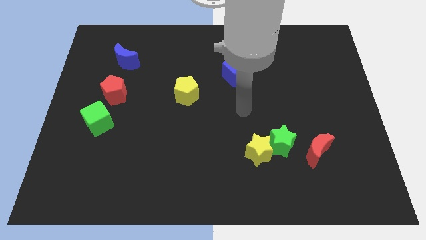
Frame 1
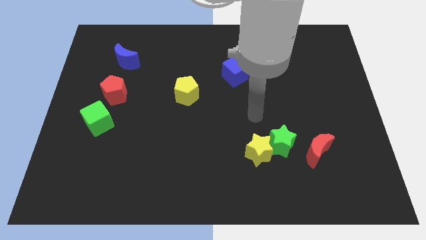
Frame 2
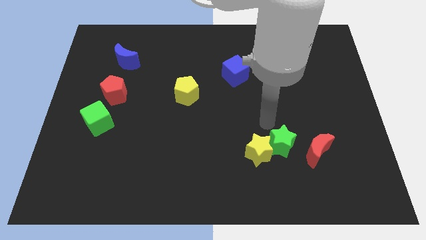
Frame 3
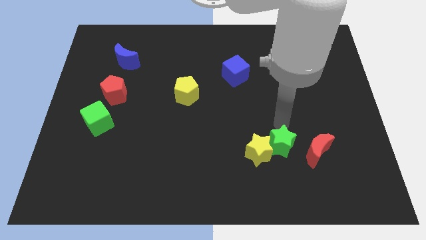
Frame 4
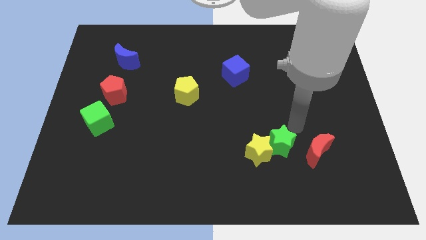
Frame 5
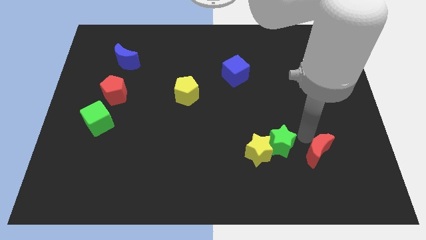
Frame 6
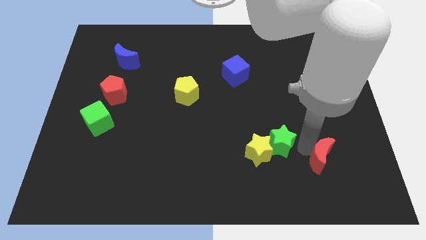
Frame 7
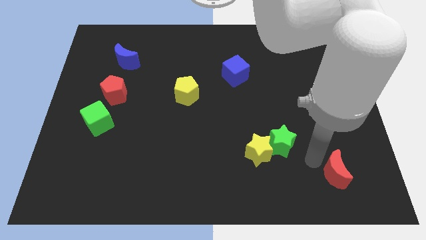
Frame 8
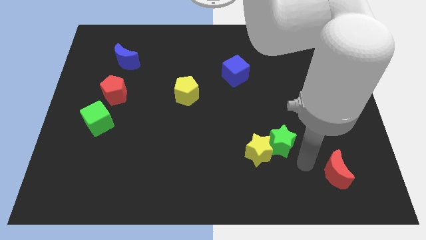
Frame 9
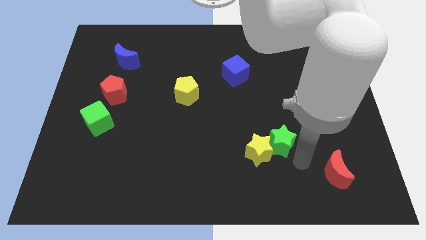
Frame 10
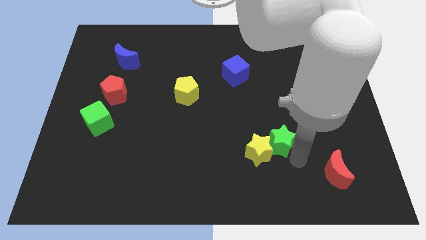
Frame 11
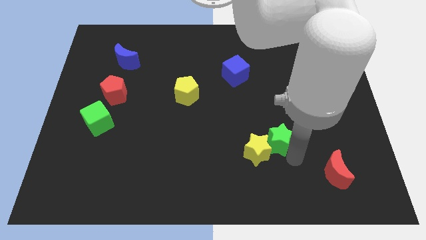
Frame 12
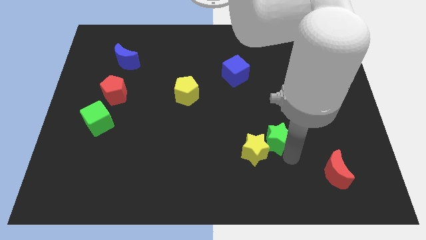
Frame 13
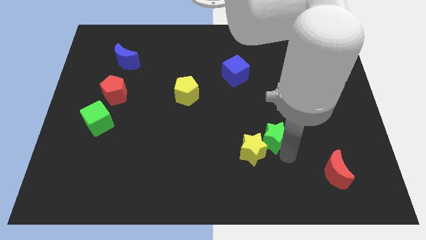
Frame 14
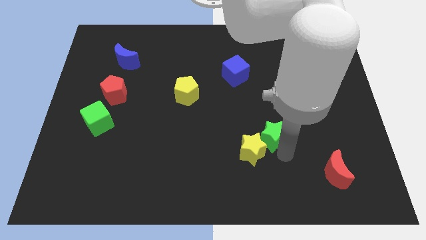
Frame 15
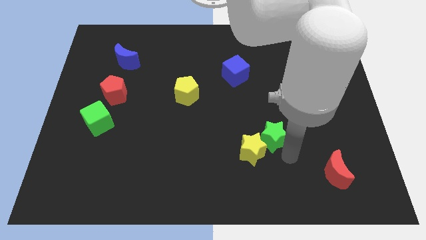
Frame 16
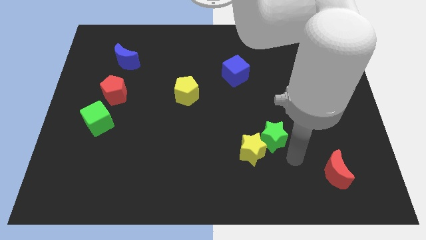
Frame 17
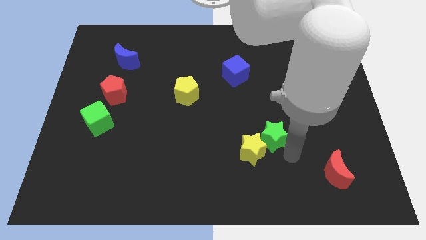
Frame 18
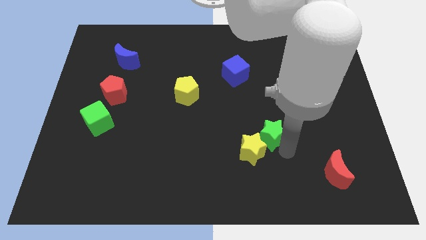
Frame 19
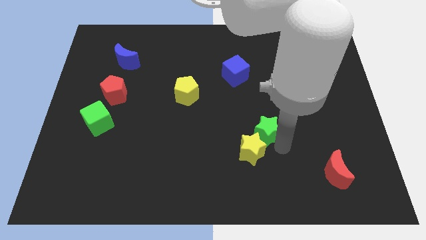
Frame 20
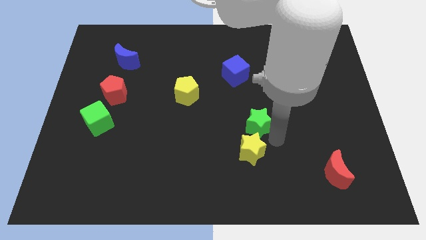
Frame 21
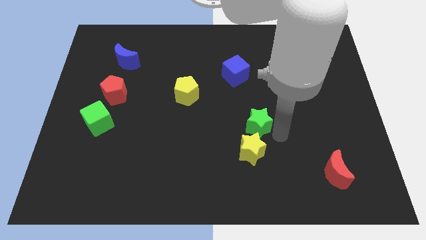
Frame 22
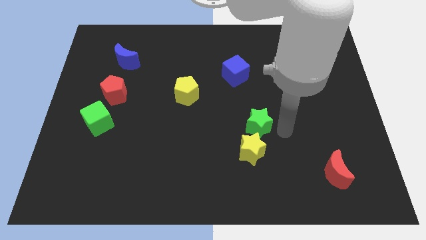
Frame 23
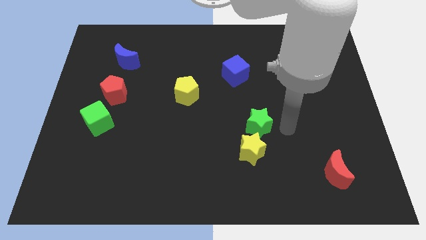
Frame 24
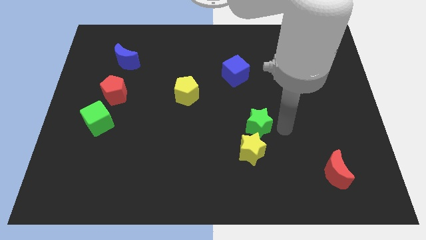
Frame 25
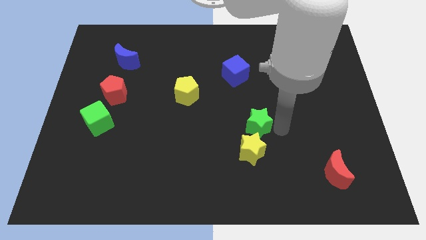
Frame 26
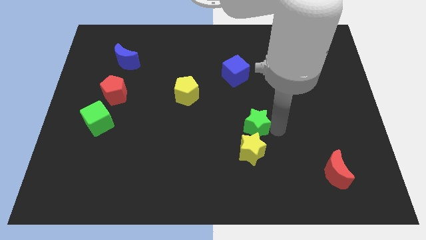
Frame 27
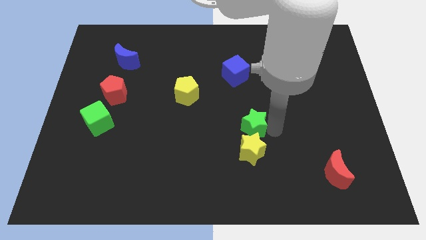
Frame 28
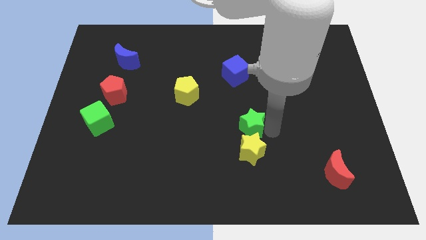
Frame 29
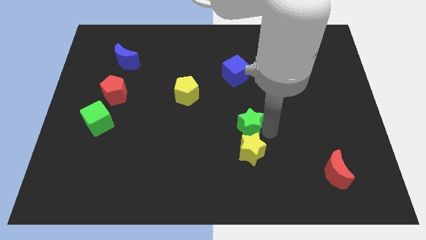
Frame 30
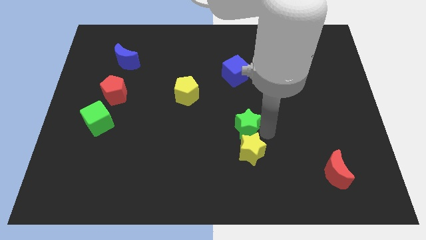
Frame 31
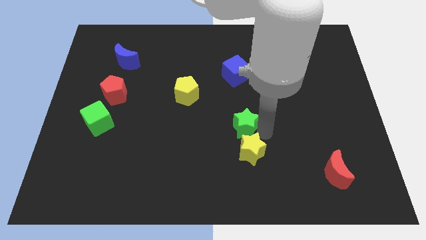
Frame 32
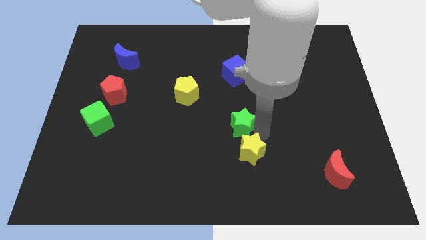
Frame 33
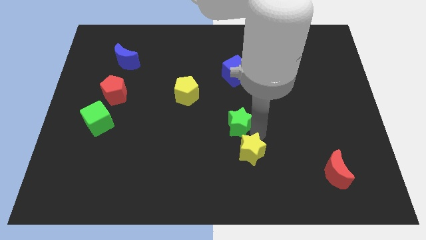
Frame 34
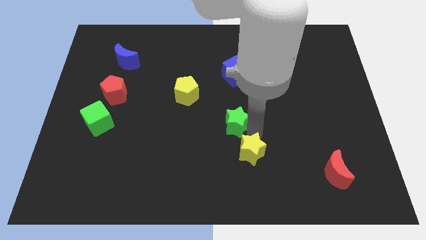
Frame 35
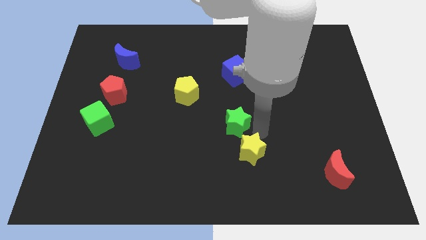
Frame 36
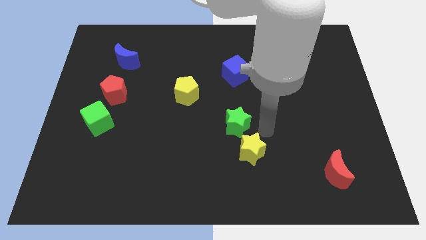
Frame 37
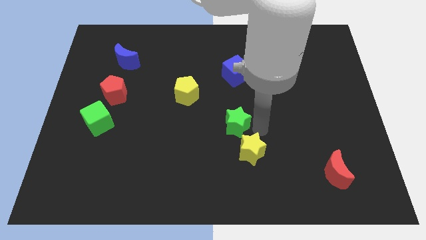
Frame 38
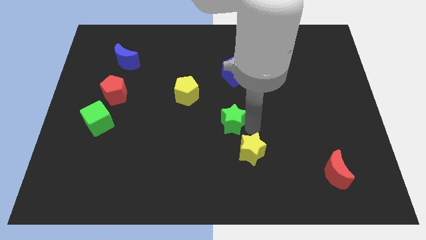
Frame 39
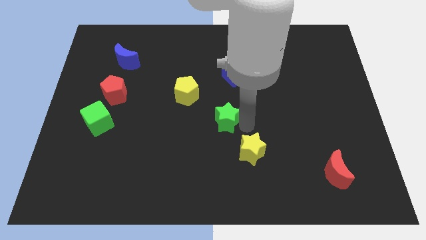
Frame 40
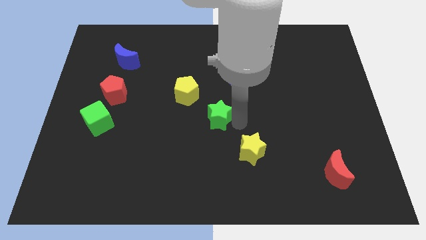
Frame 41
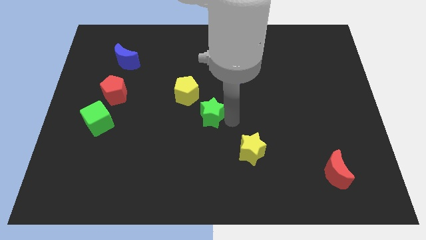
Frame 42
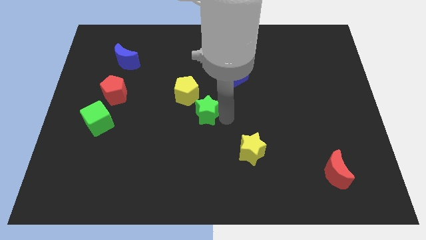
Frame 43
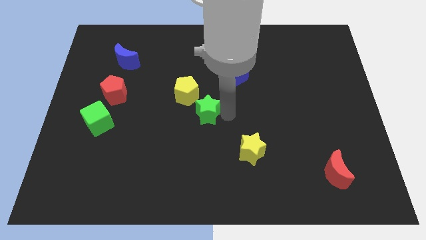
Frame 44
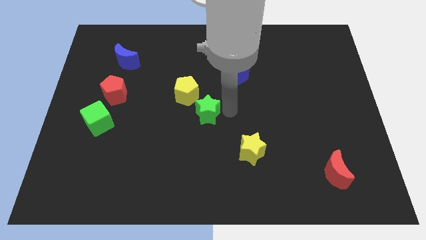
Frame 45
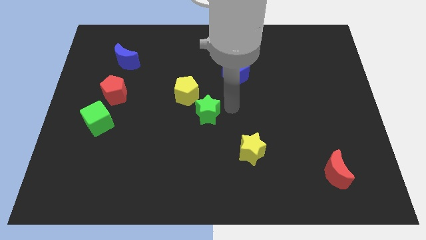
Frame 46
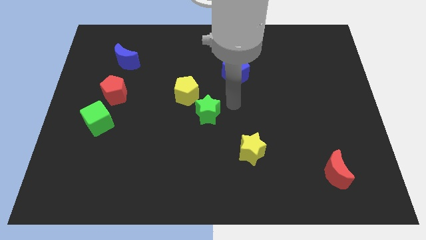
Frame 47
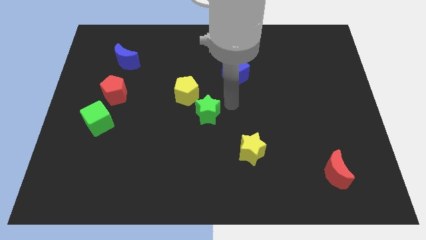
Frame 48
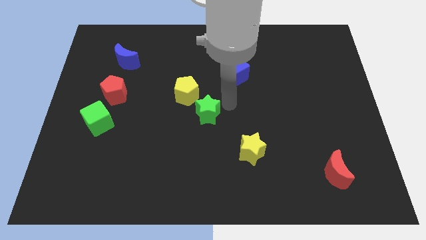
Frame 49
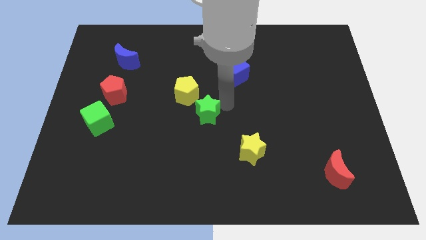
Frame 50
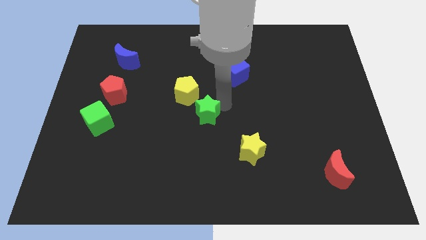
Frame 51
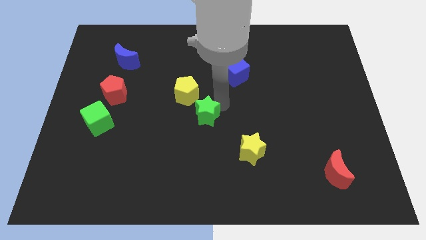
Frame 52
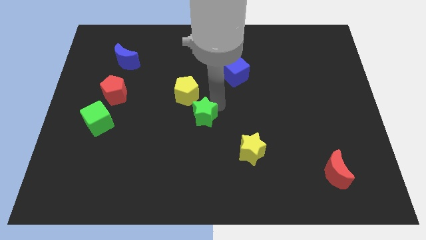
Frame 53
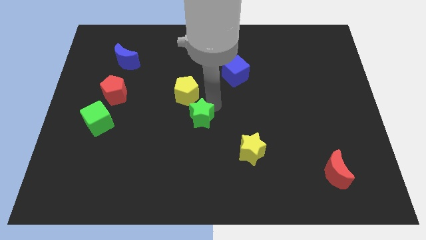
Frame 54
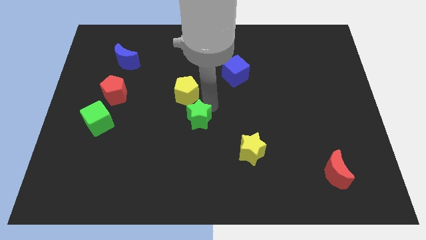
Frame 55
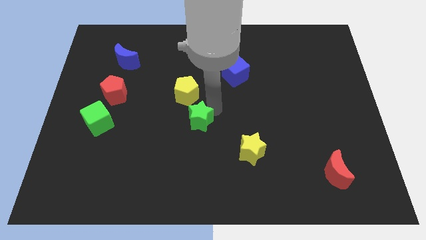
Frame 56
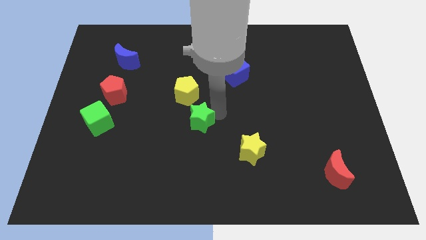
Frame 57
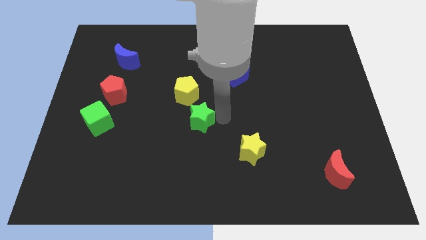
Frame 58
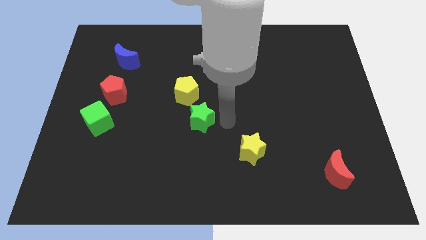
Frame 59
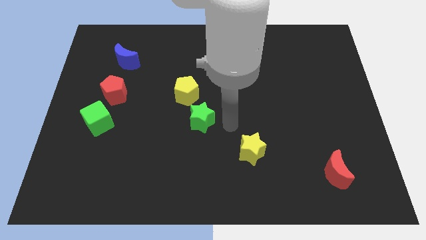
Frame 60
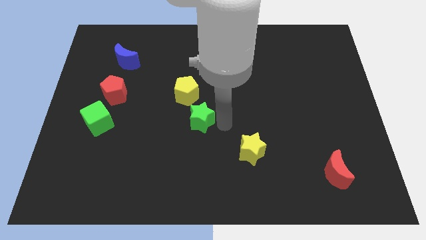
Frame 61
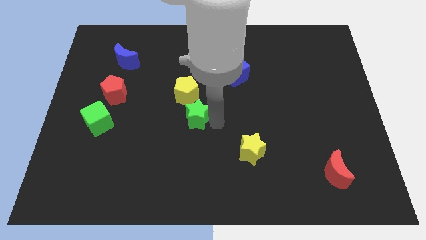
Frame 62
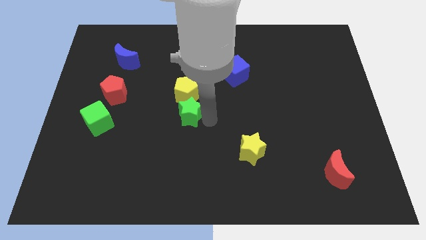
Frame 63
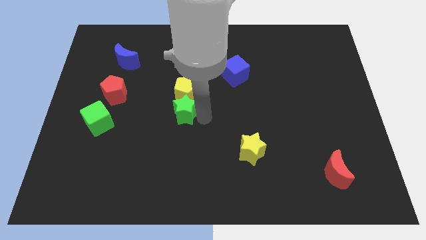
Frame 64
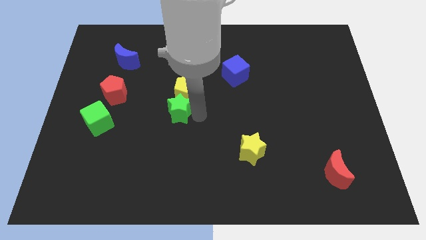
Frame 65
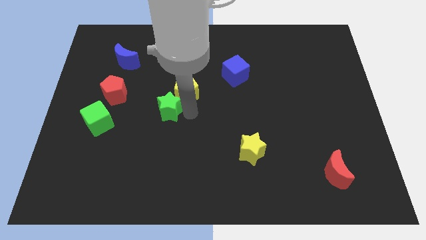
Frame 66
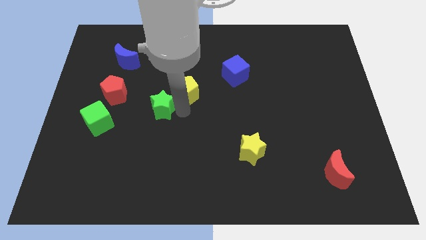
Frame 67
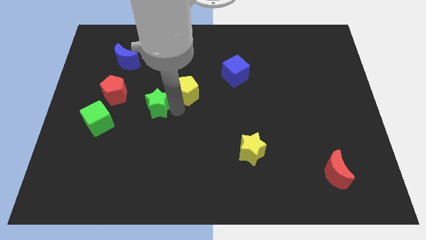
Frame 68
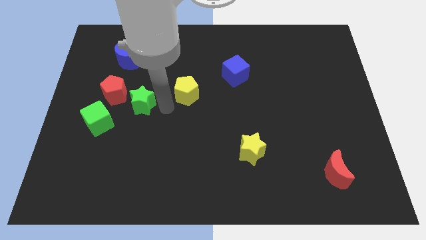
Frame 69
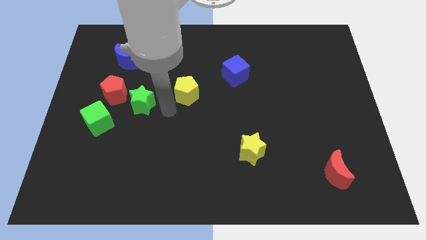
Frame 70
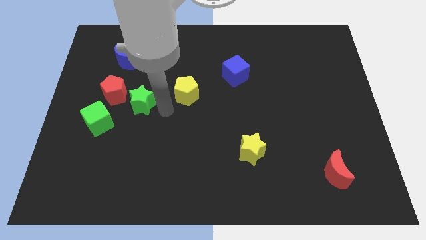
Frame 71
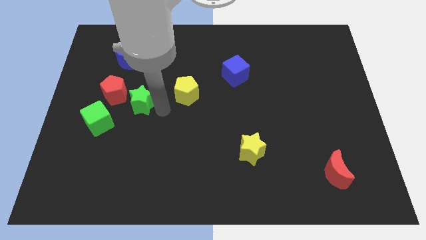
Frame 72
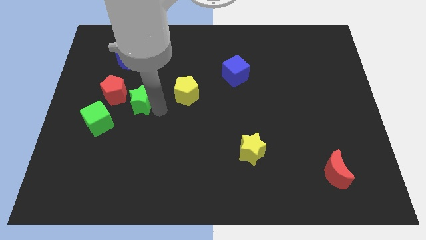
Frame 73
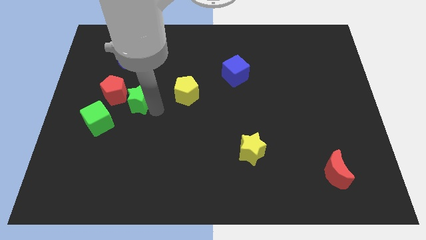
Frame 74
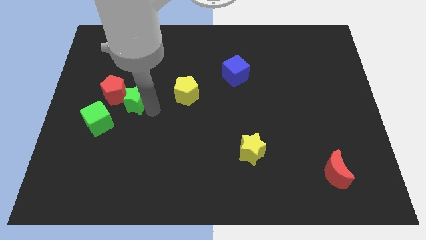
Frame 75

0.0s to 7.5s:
move the green star to the red pentagon
